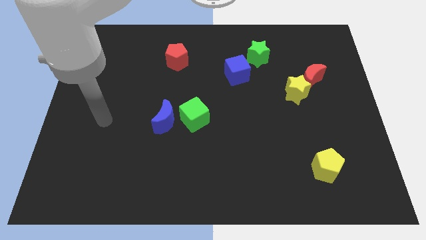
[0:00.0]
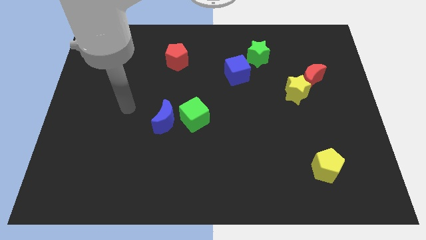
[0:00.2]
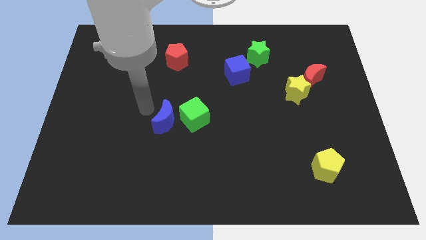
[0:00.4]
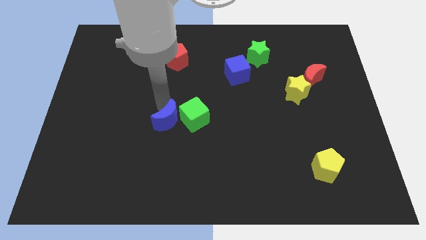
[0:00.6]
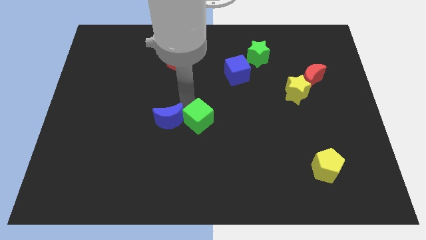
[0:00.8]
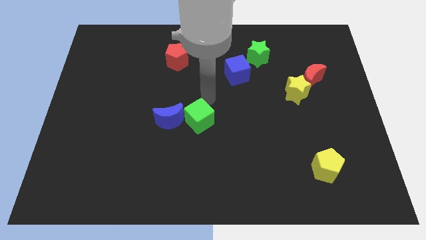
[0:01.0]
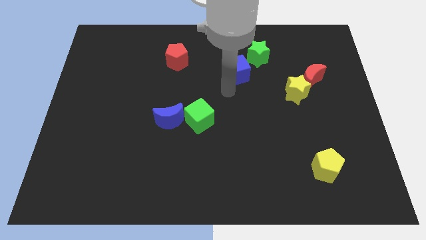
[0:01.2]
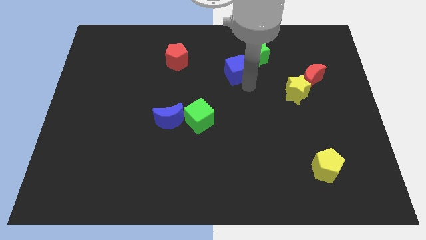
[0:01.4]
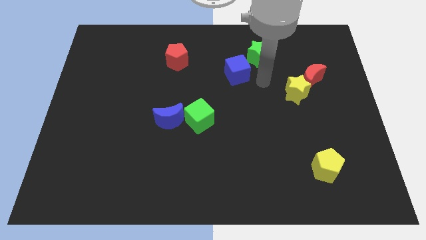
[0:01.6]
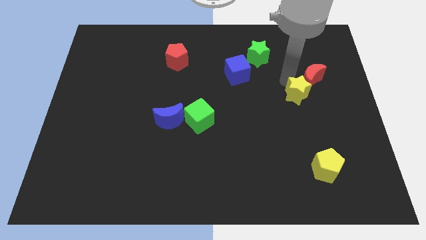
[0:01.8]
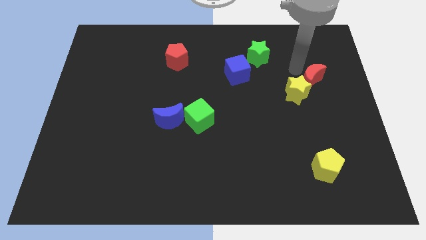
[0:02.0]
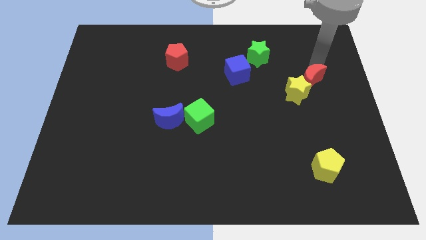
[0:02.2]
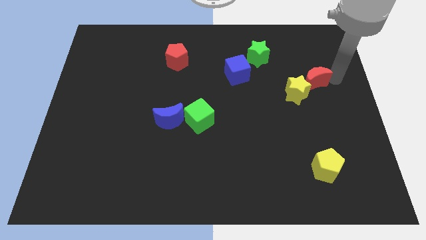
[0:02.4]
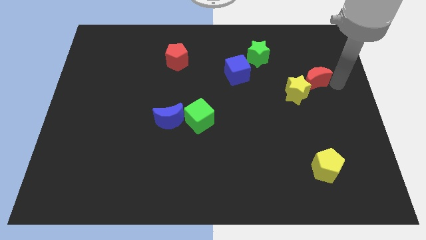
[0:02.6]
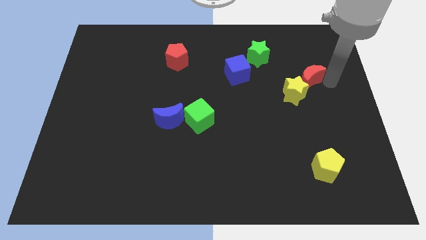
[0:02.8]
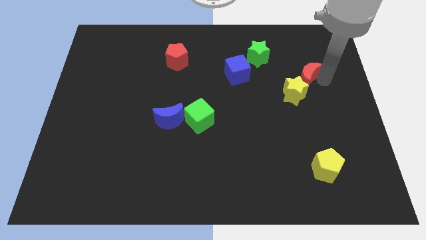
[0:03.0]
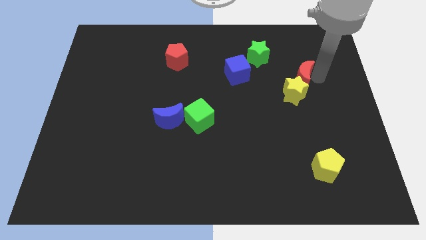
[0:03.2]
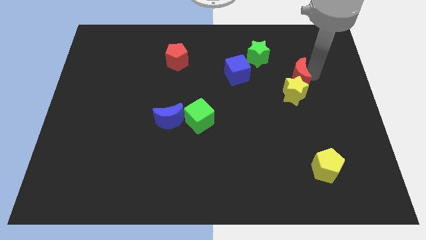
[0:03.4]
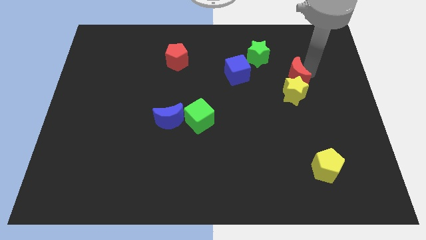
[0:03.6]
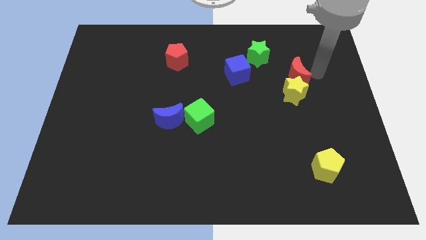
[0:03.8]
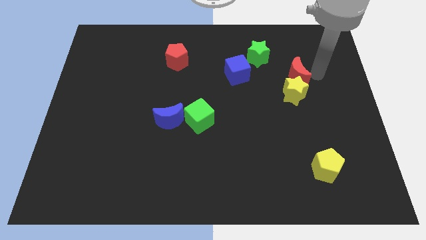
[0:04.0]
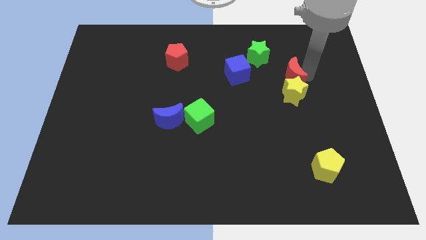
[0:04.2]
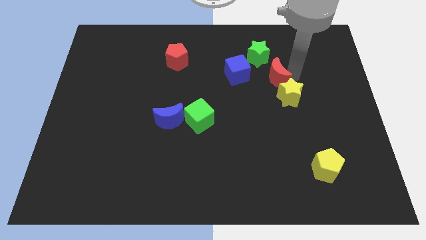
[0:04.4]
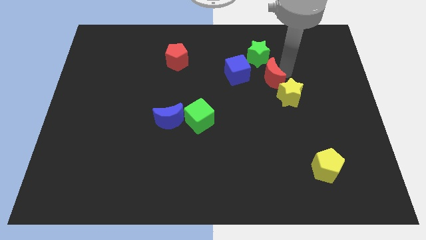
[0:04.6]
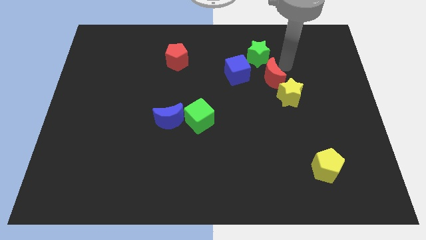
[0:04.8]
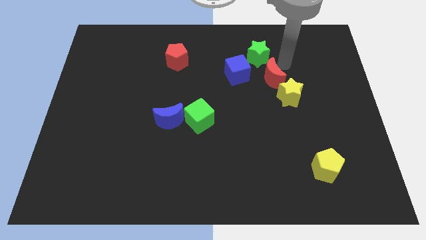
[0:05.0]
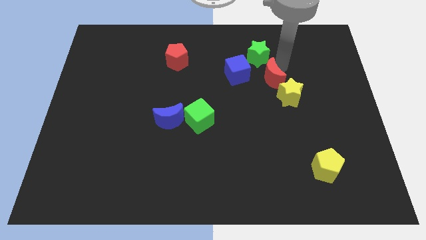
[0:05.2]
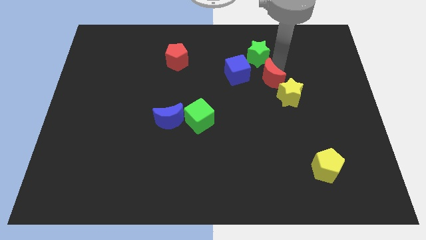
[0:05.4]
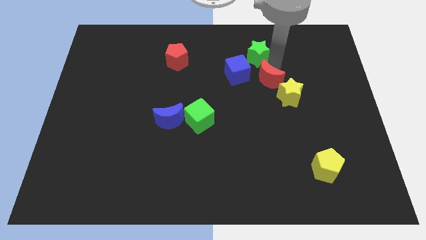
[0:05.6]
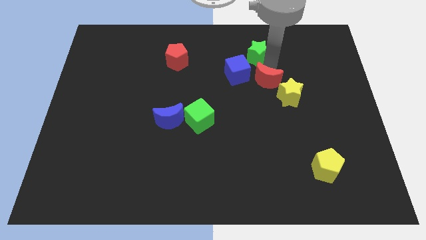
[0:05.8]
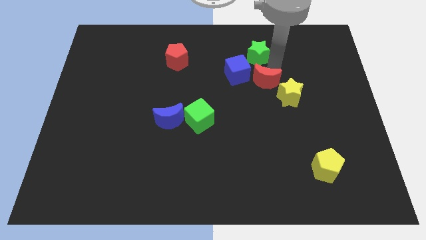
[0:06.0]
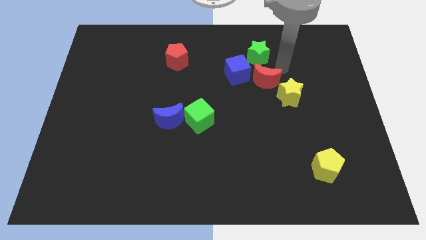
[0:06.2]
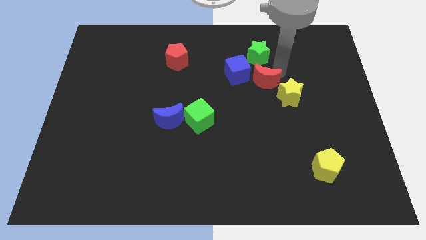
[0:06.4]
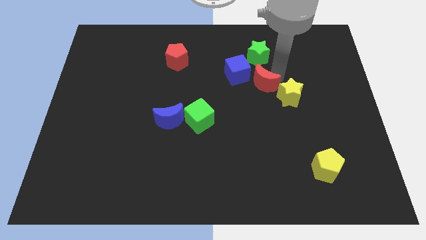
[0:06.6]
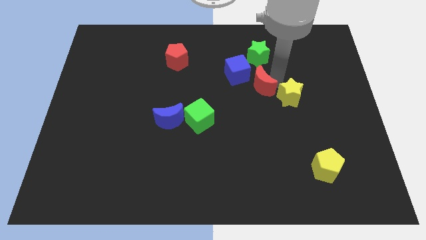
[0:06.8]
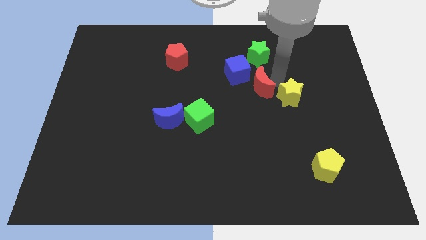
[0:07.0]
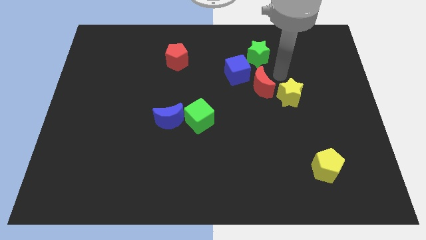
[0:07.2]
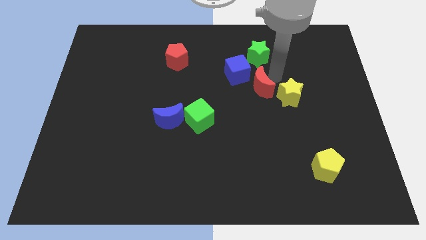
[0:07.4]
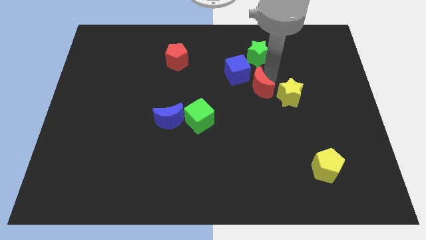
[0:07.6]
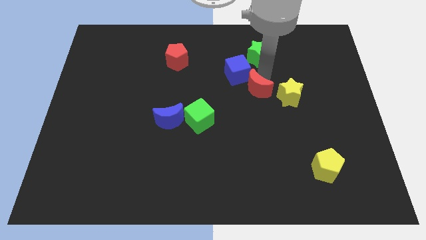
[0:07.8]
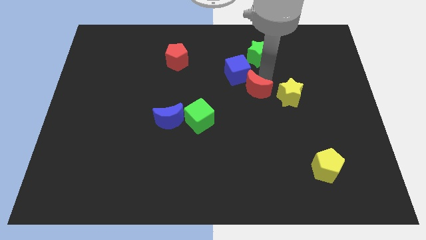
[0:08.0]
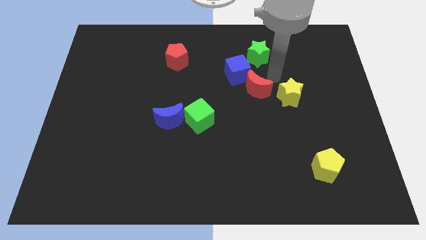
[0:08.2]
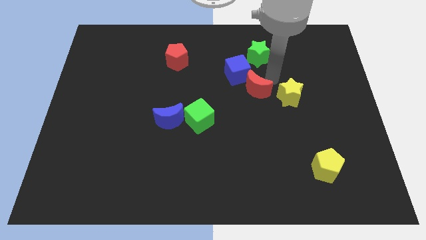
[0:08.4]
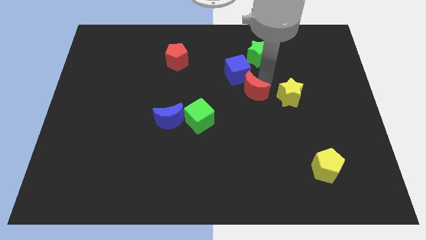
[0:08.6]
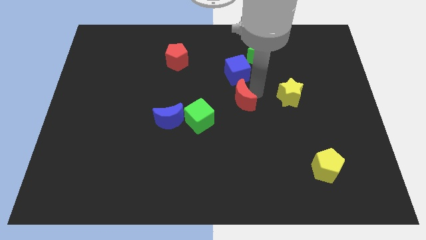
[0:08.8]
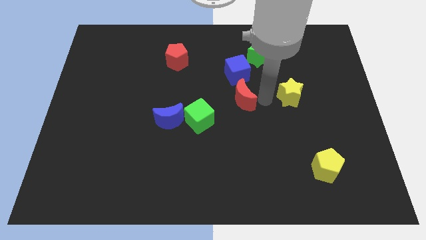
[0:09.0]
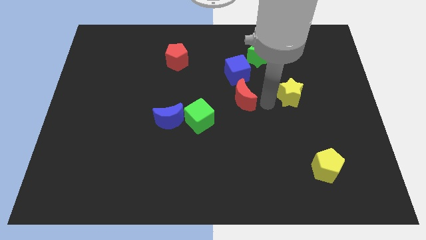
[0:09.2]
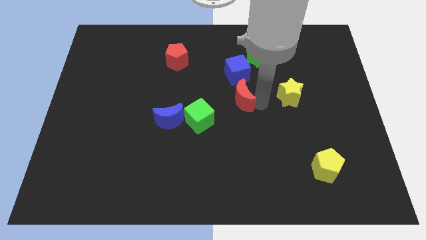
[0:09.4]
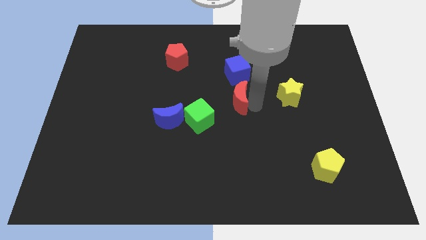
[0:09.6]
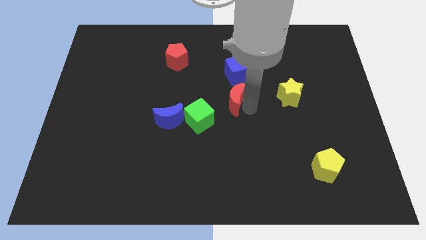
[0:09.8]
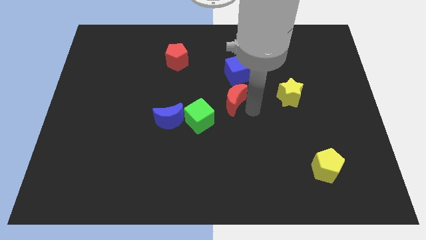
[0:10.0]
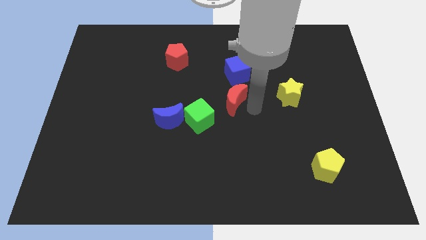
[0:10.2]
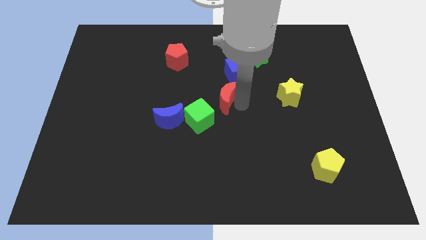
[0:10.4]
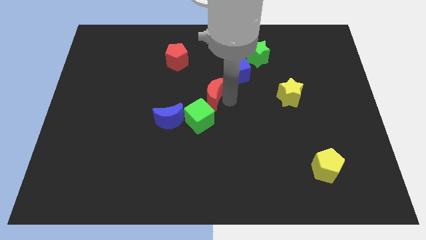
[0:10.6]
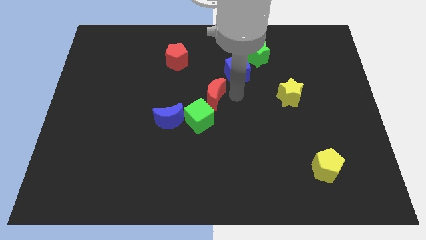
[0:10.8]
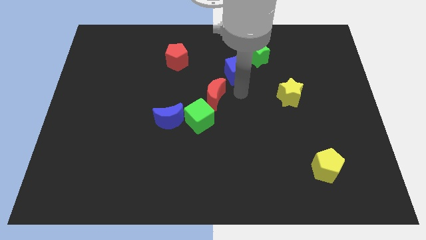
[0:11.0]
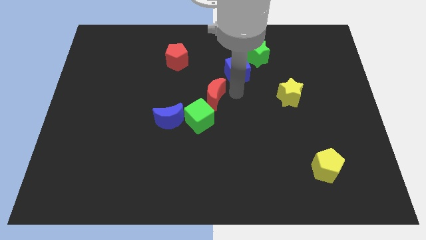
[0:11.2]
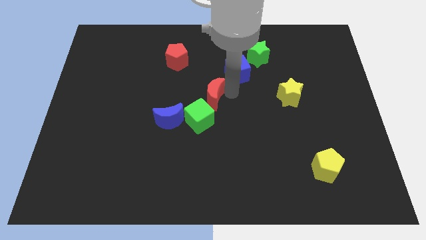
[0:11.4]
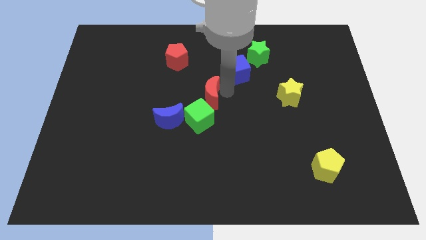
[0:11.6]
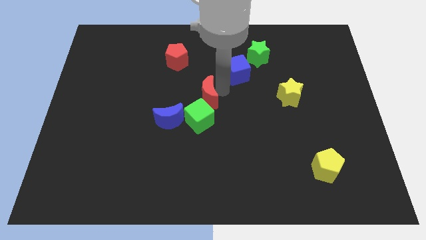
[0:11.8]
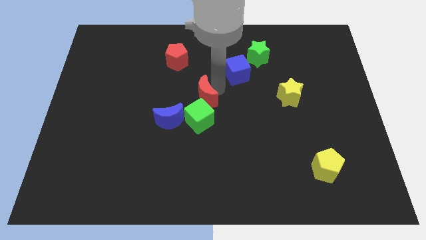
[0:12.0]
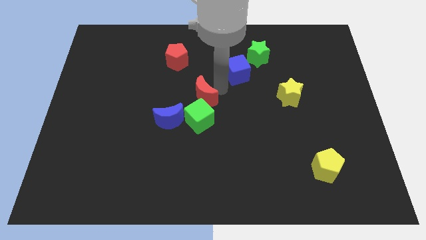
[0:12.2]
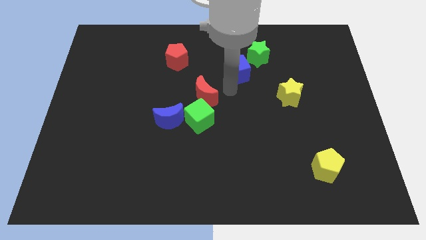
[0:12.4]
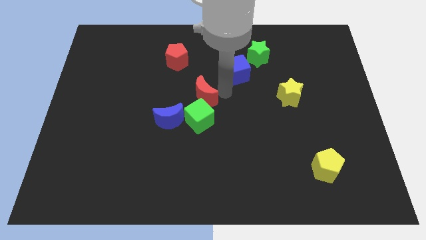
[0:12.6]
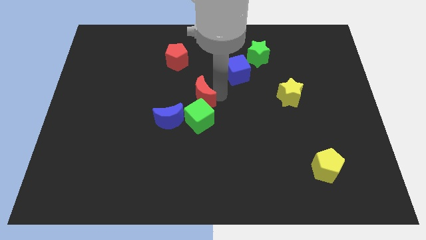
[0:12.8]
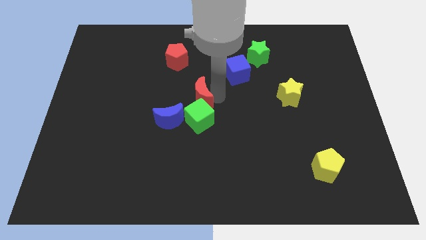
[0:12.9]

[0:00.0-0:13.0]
move the red moon to the top left side of the green cube
